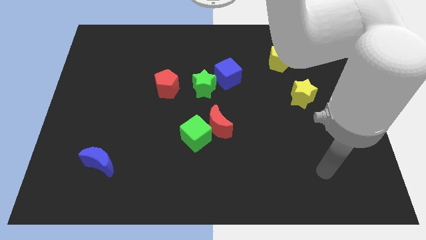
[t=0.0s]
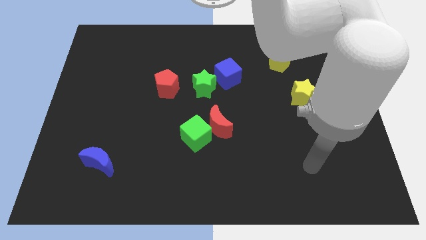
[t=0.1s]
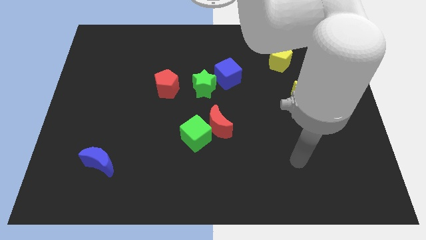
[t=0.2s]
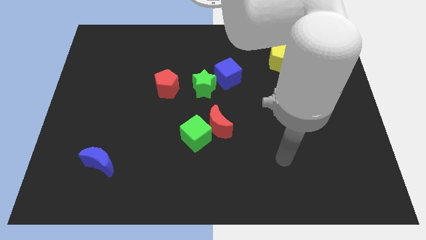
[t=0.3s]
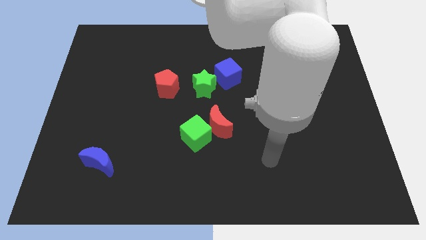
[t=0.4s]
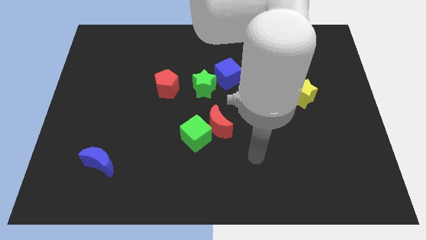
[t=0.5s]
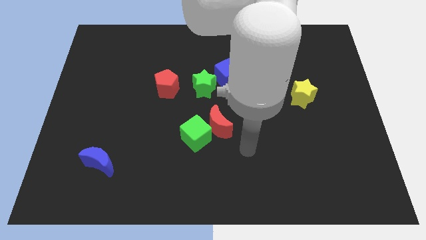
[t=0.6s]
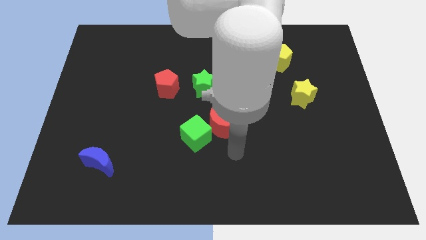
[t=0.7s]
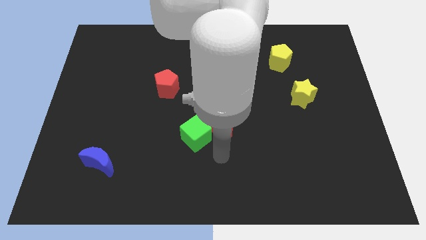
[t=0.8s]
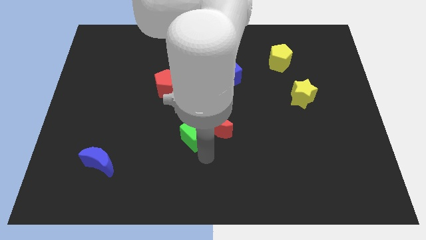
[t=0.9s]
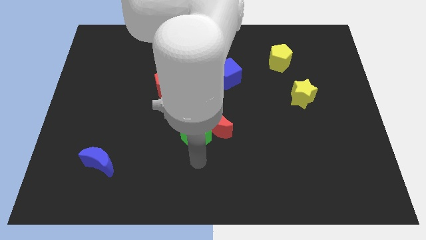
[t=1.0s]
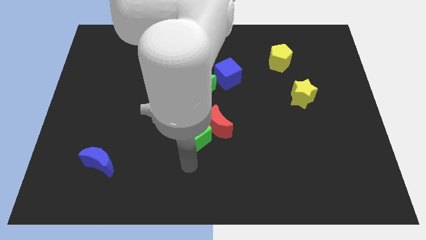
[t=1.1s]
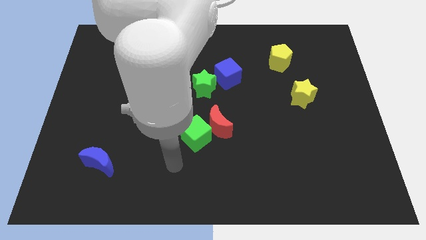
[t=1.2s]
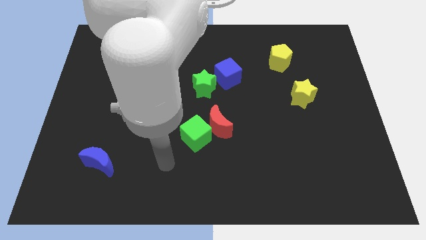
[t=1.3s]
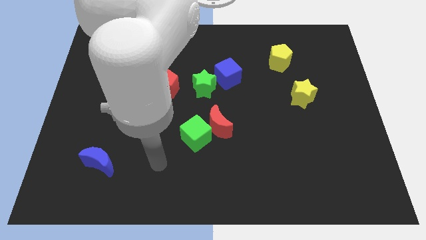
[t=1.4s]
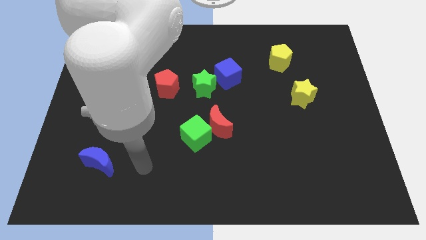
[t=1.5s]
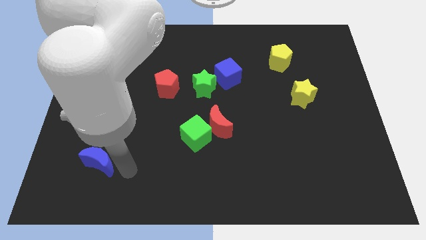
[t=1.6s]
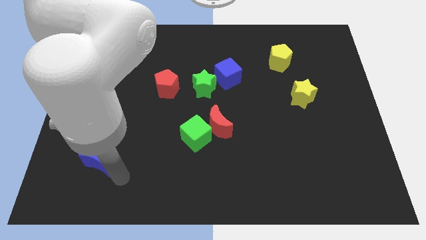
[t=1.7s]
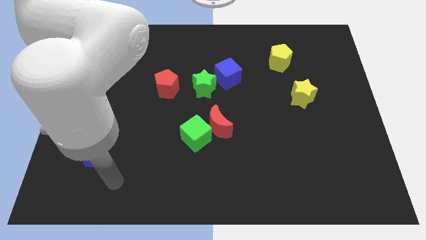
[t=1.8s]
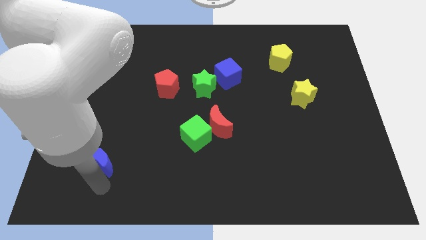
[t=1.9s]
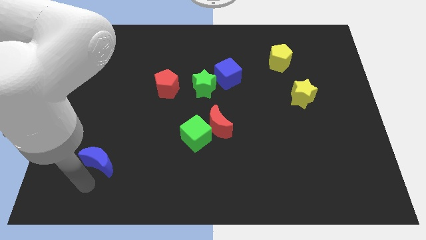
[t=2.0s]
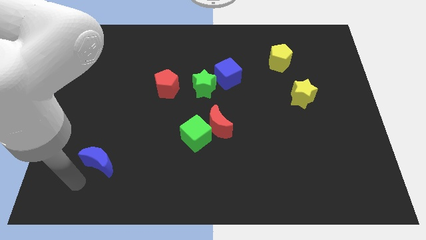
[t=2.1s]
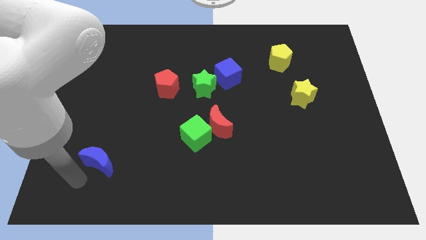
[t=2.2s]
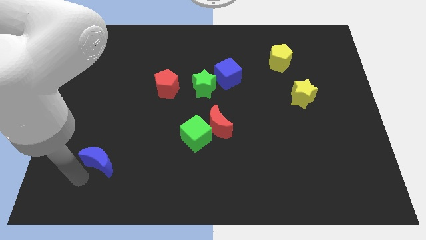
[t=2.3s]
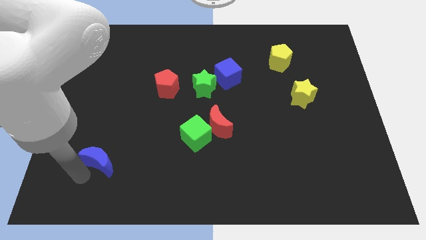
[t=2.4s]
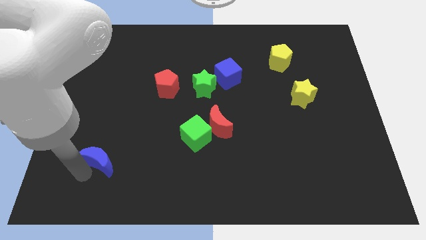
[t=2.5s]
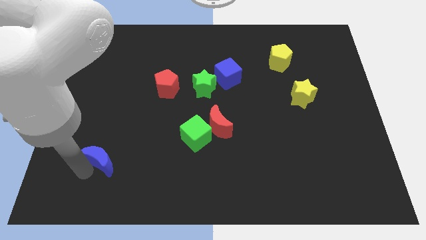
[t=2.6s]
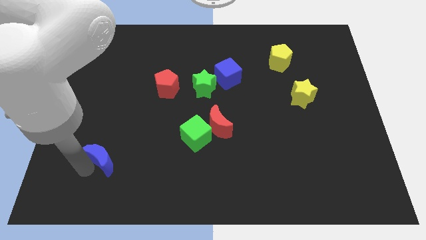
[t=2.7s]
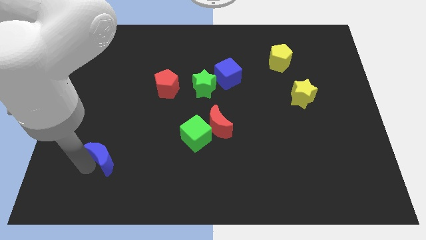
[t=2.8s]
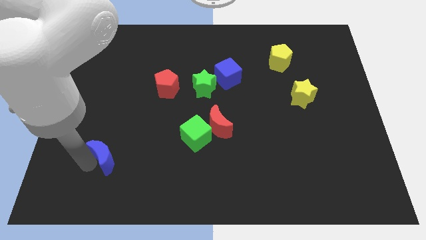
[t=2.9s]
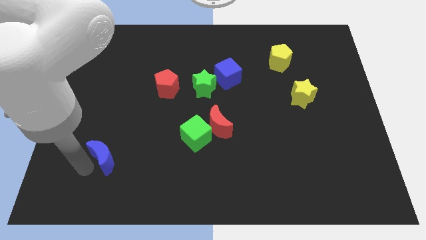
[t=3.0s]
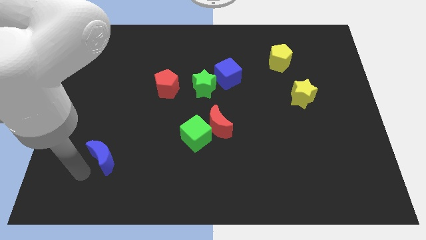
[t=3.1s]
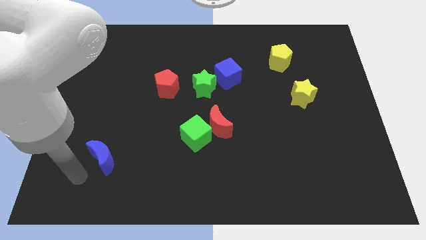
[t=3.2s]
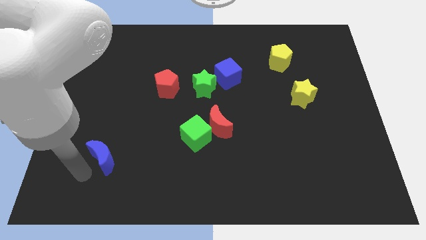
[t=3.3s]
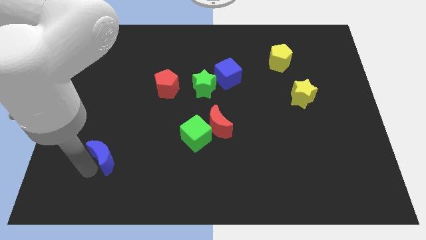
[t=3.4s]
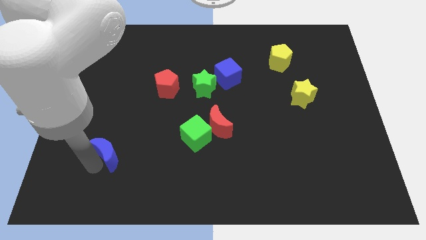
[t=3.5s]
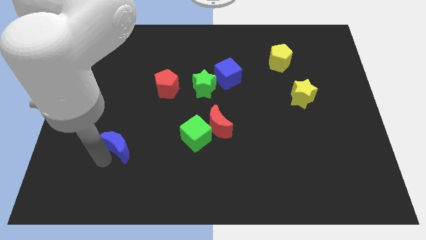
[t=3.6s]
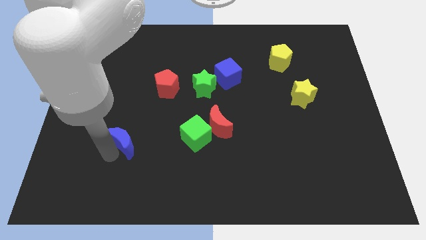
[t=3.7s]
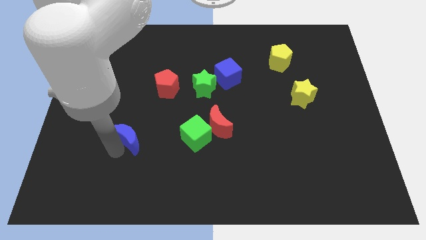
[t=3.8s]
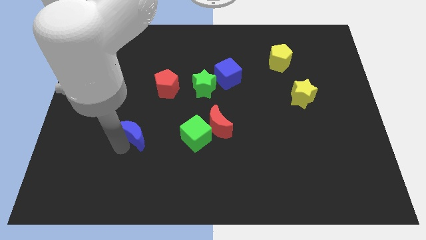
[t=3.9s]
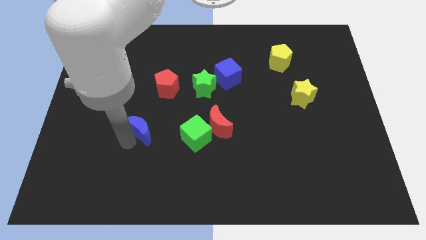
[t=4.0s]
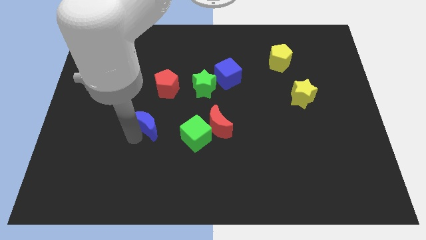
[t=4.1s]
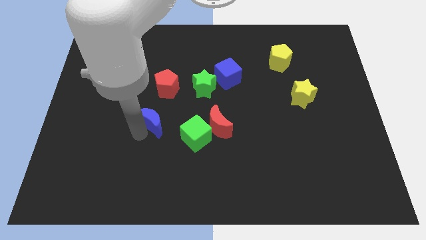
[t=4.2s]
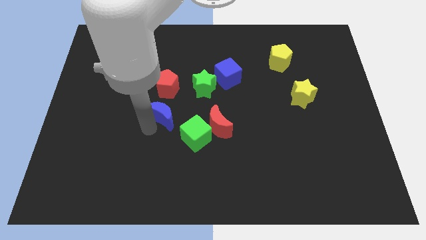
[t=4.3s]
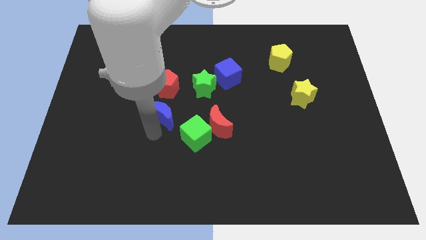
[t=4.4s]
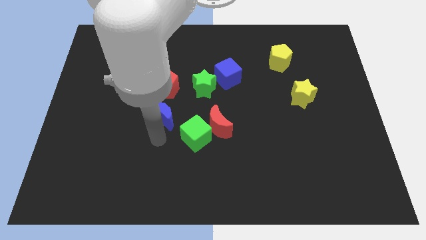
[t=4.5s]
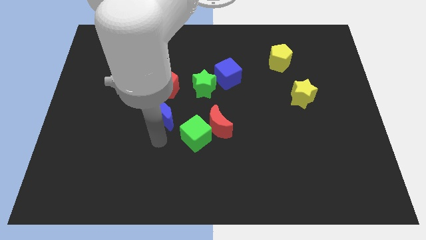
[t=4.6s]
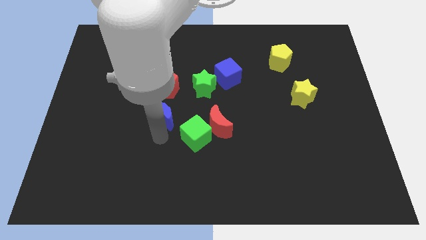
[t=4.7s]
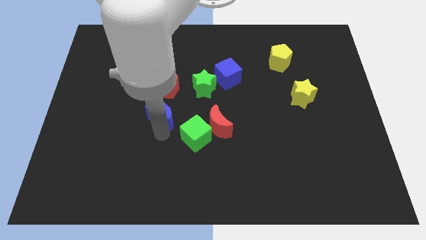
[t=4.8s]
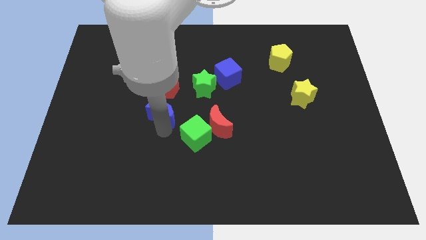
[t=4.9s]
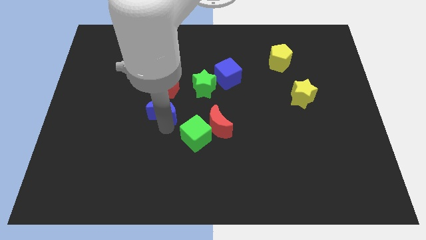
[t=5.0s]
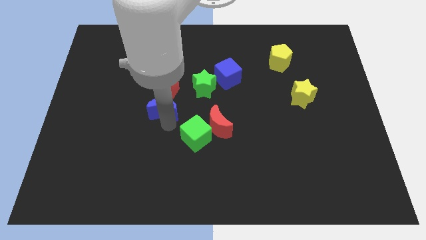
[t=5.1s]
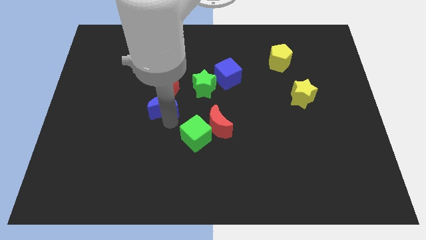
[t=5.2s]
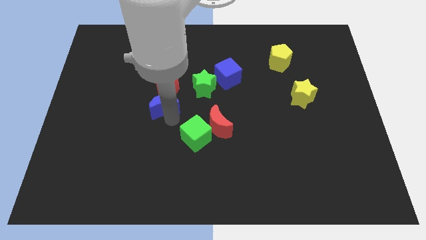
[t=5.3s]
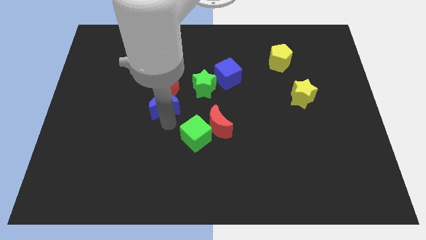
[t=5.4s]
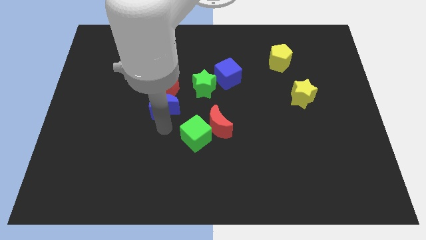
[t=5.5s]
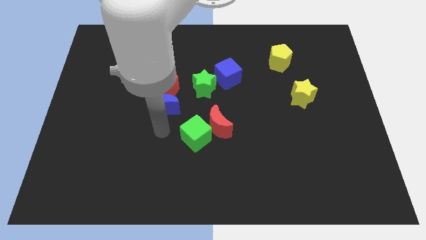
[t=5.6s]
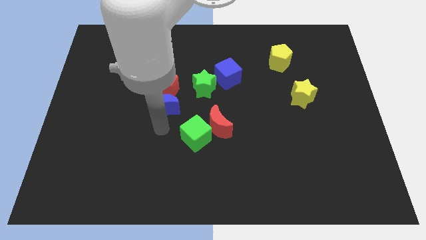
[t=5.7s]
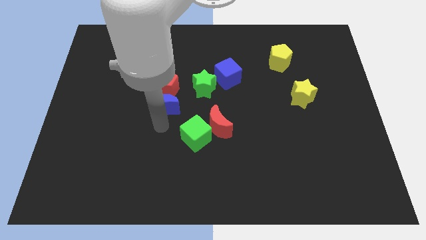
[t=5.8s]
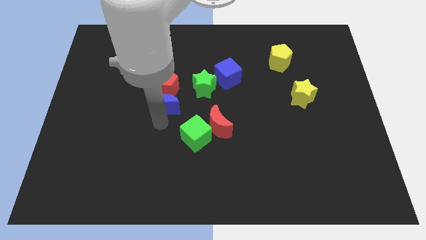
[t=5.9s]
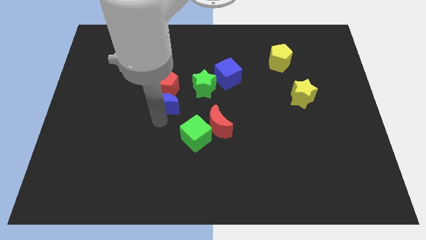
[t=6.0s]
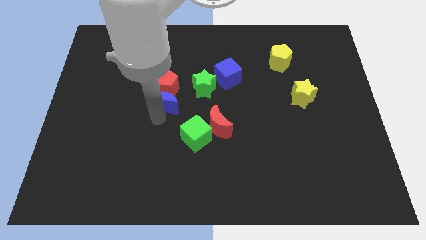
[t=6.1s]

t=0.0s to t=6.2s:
slide the blue moon close to the red pentagon

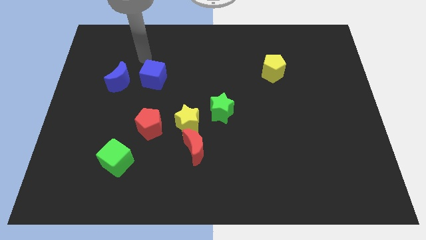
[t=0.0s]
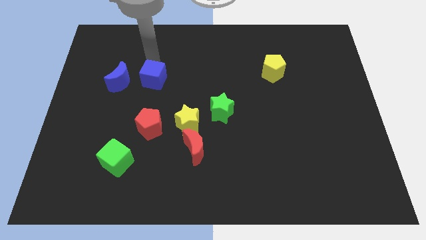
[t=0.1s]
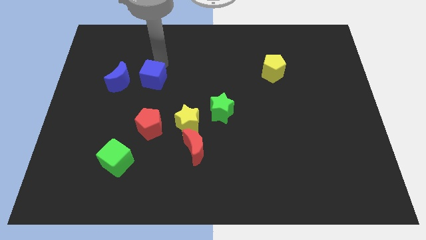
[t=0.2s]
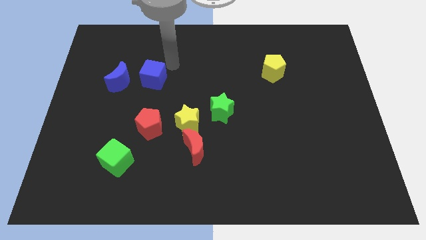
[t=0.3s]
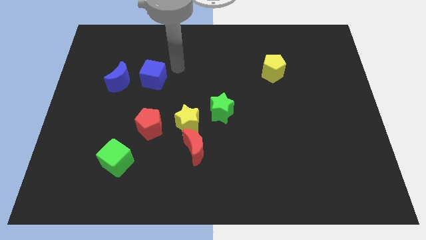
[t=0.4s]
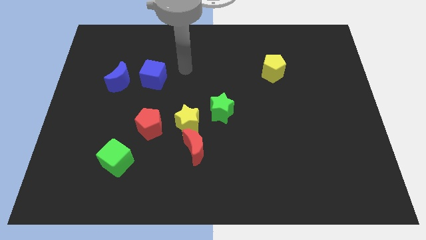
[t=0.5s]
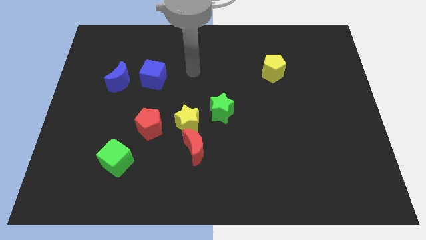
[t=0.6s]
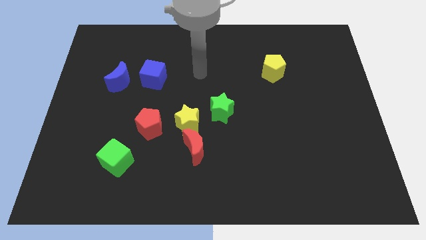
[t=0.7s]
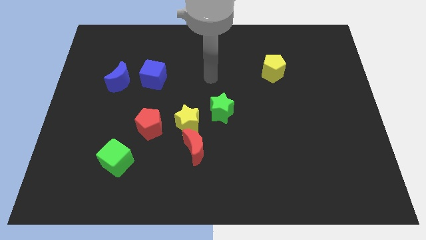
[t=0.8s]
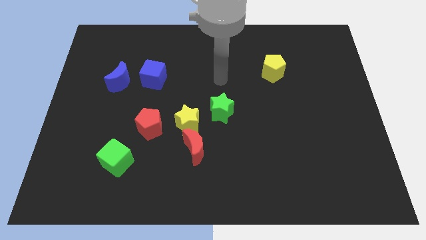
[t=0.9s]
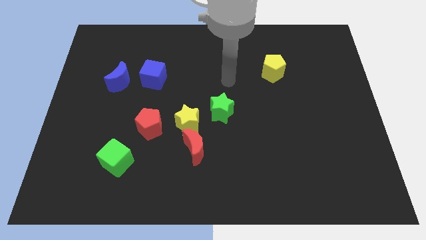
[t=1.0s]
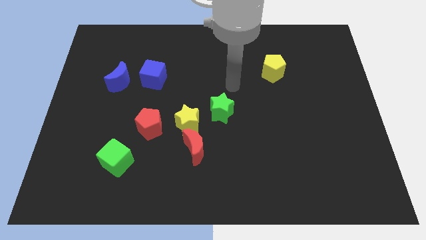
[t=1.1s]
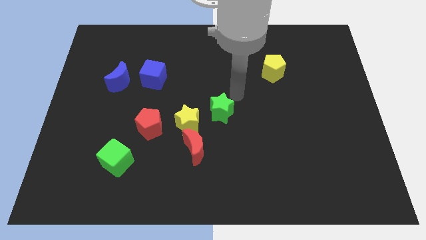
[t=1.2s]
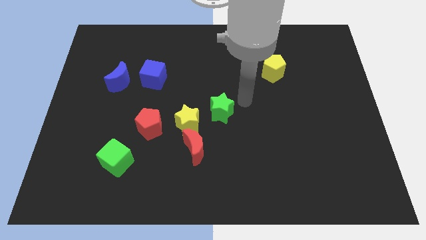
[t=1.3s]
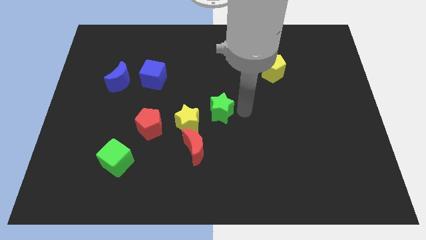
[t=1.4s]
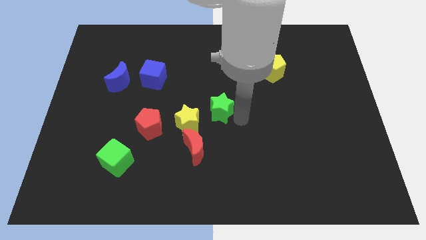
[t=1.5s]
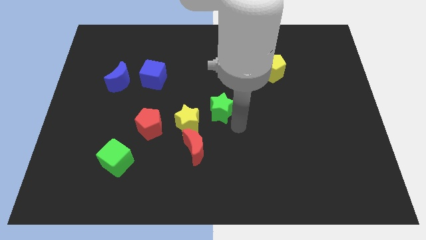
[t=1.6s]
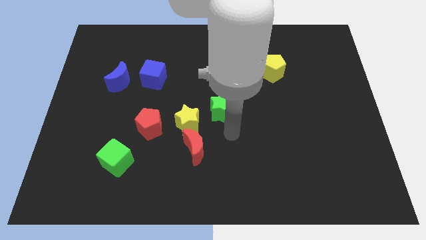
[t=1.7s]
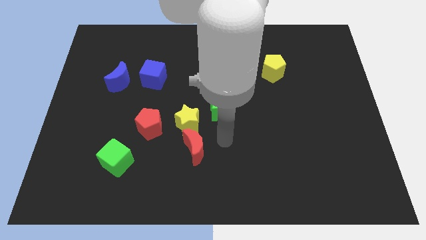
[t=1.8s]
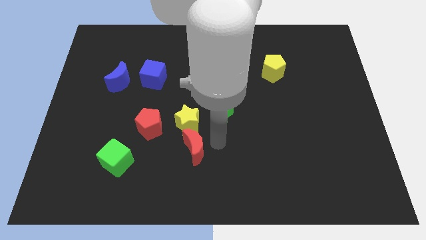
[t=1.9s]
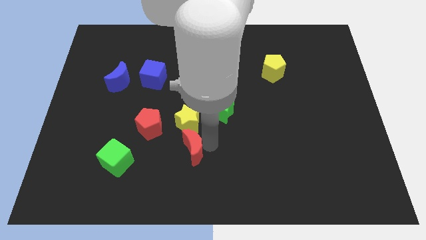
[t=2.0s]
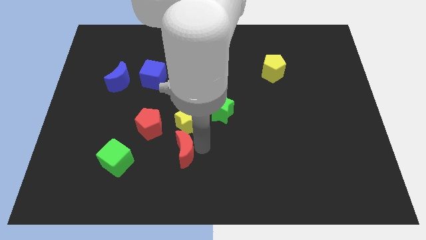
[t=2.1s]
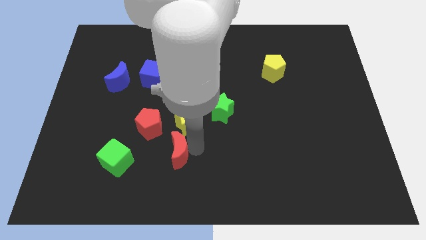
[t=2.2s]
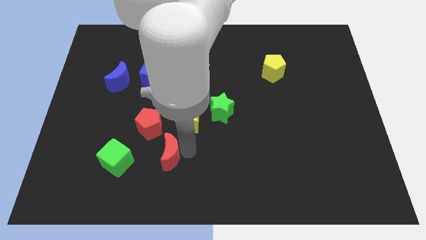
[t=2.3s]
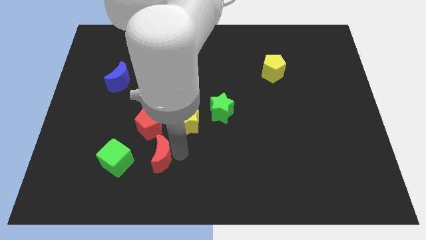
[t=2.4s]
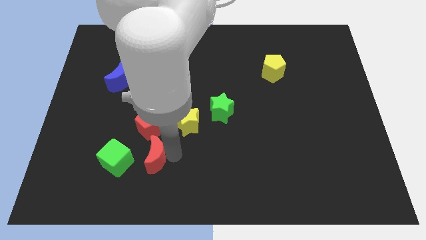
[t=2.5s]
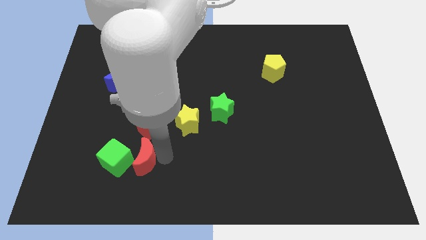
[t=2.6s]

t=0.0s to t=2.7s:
push the red moon to the green cube

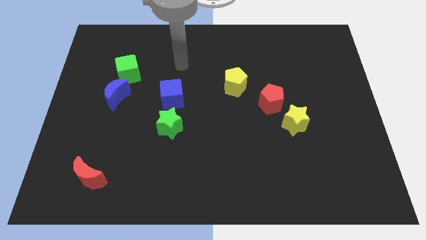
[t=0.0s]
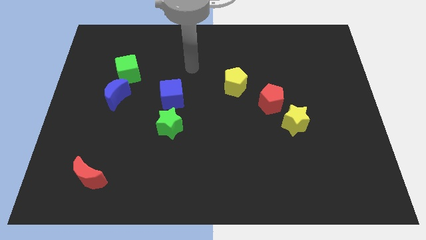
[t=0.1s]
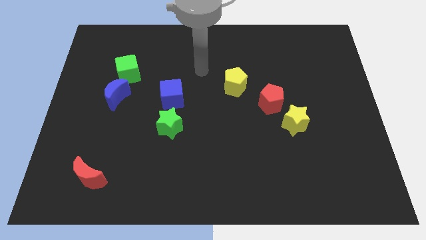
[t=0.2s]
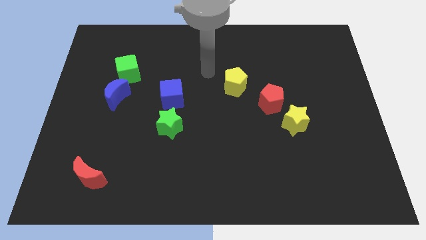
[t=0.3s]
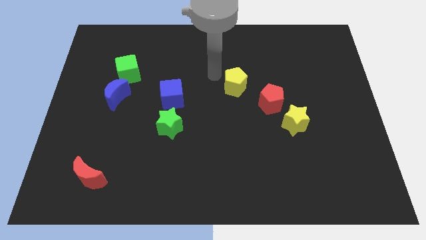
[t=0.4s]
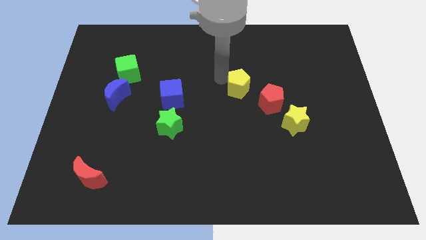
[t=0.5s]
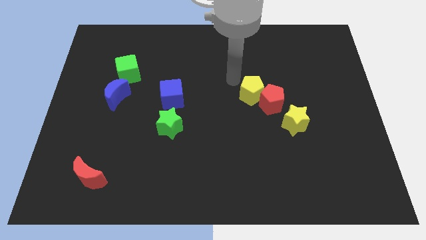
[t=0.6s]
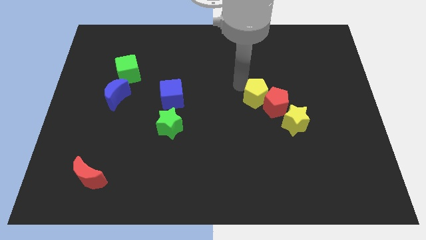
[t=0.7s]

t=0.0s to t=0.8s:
push the red pentagon next to the yellow star
